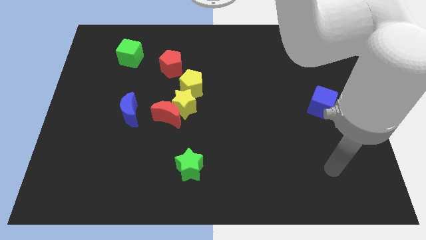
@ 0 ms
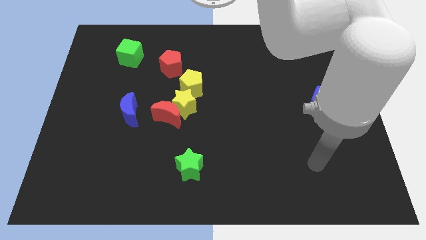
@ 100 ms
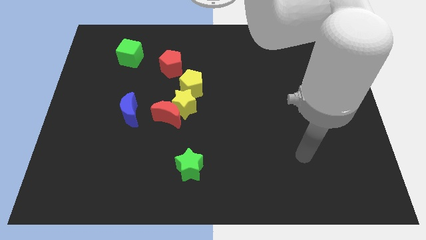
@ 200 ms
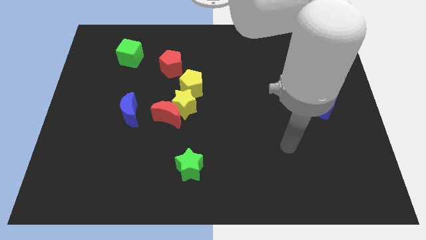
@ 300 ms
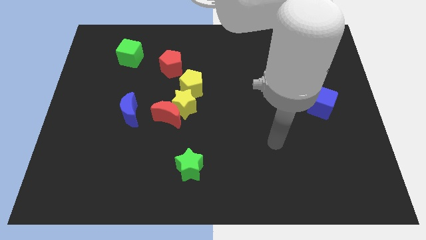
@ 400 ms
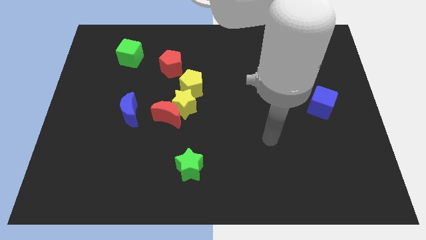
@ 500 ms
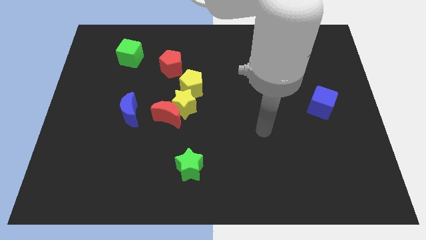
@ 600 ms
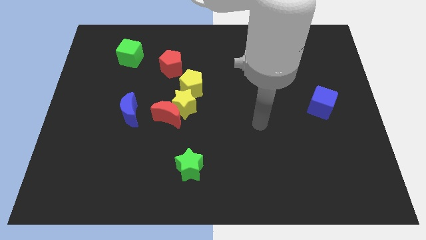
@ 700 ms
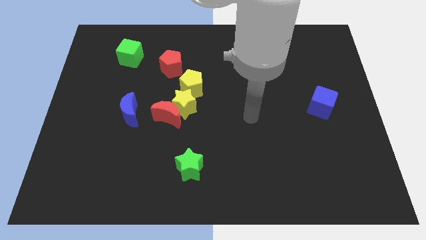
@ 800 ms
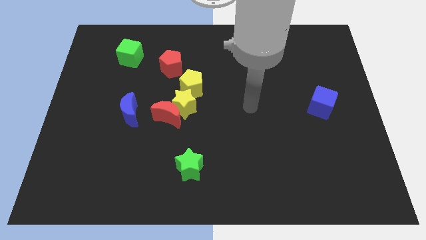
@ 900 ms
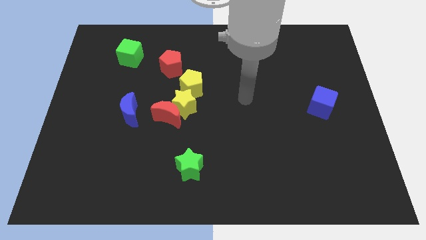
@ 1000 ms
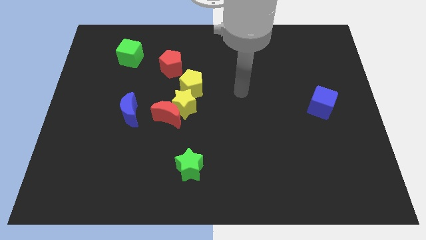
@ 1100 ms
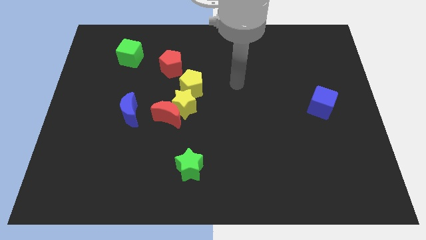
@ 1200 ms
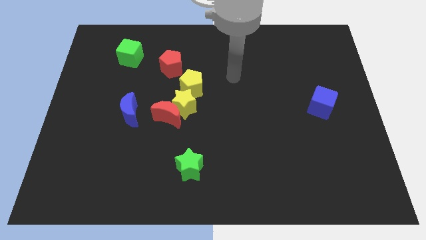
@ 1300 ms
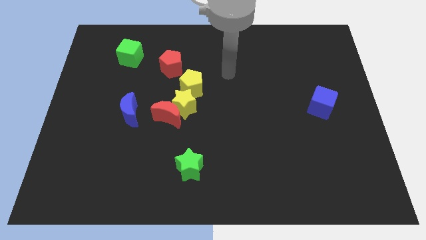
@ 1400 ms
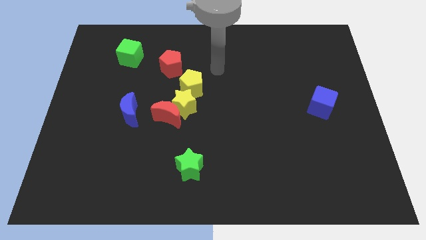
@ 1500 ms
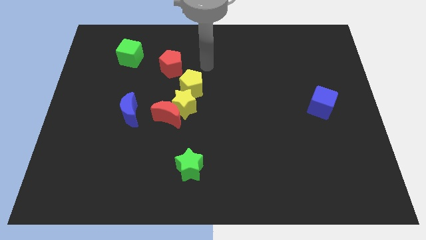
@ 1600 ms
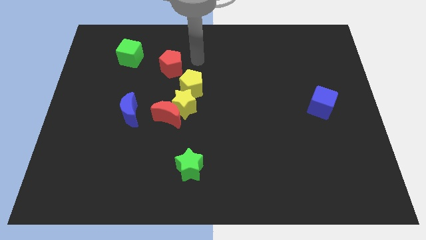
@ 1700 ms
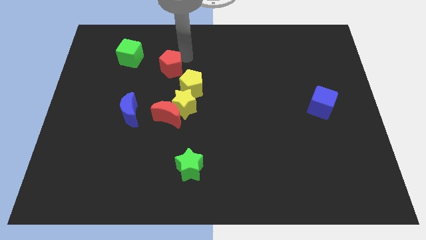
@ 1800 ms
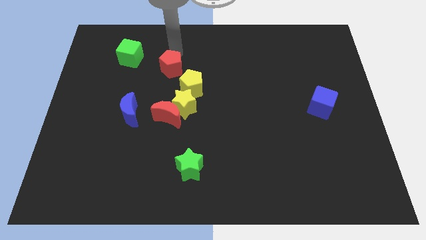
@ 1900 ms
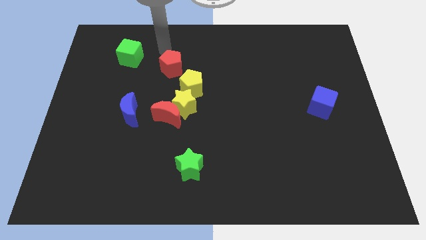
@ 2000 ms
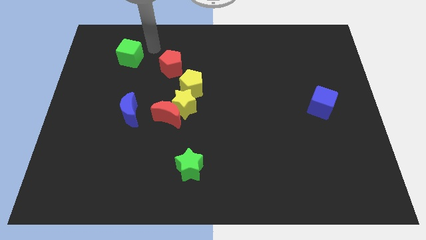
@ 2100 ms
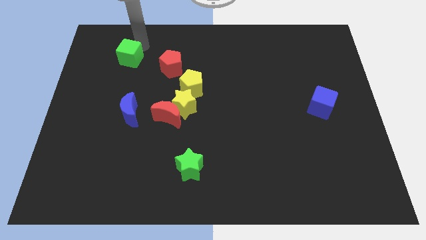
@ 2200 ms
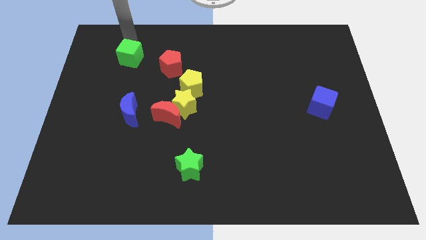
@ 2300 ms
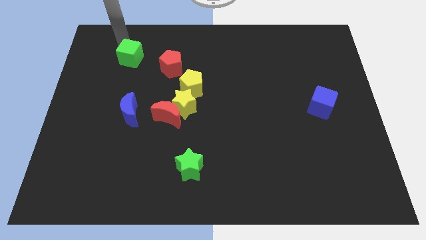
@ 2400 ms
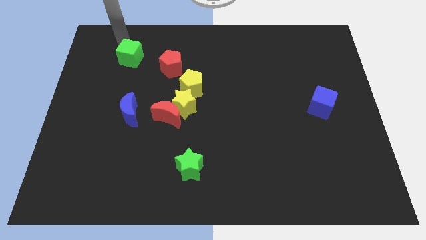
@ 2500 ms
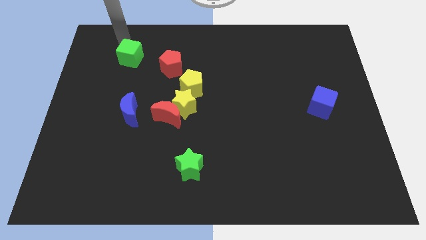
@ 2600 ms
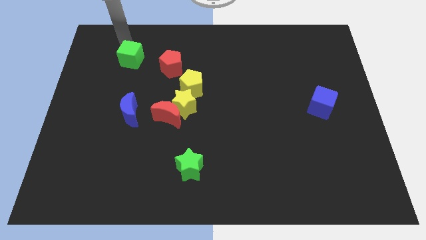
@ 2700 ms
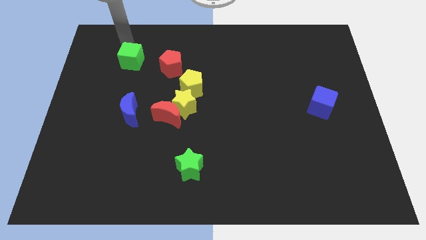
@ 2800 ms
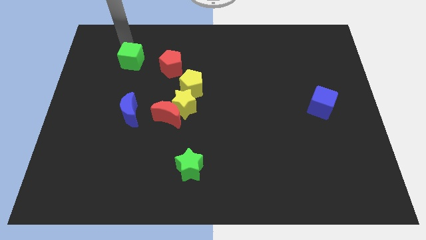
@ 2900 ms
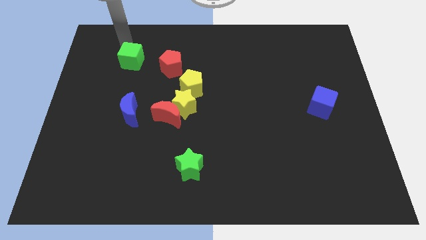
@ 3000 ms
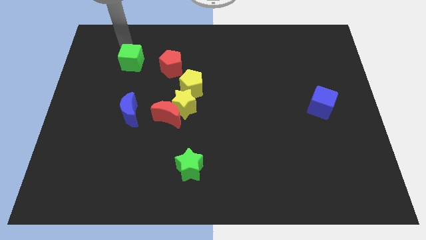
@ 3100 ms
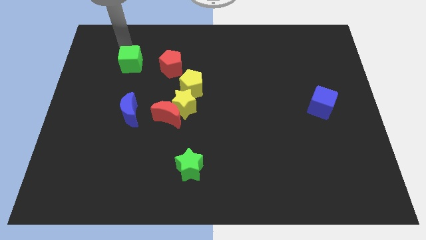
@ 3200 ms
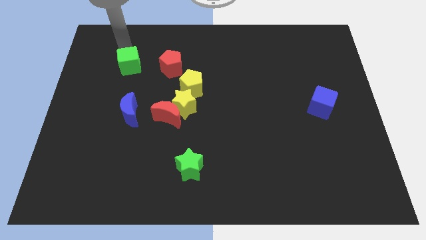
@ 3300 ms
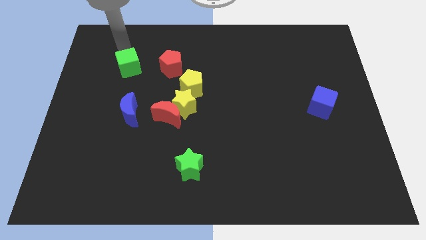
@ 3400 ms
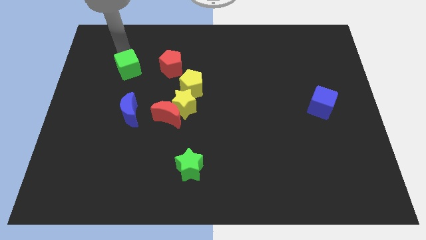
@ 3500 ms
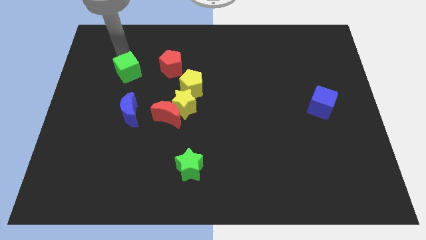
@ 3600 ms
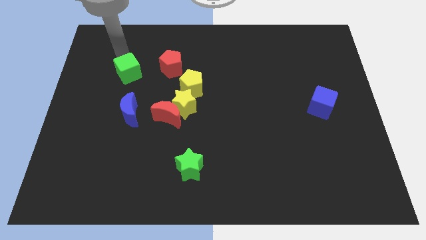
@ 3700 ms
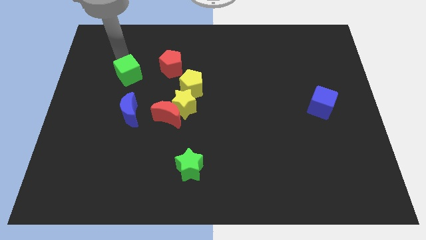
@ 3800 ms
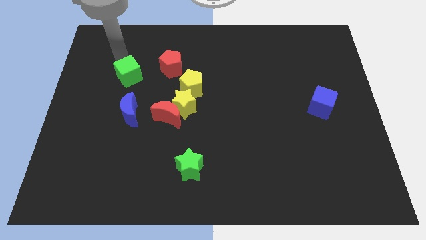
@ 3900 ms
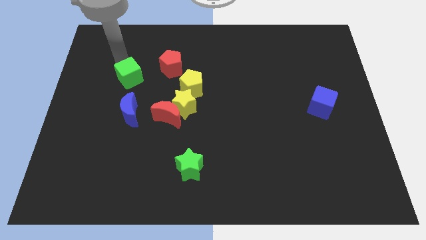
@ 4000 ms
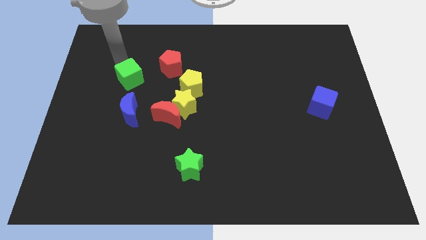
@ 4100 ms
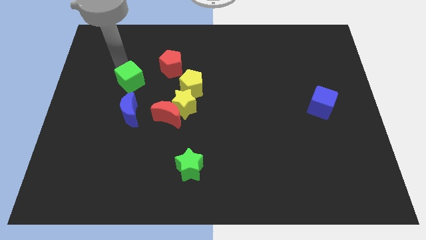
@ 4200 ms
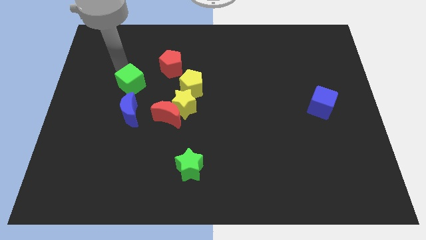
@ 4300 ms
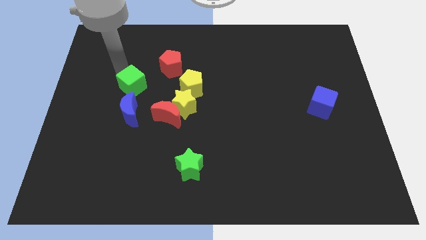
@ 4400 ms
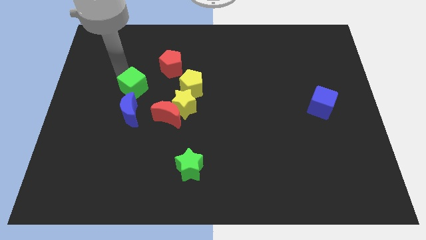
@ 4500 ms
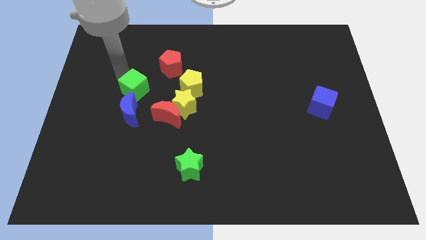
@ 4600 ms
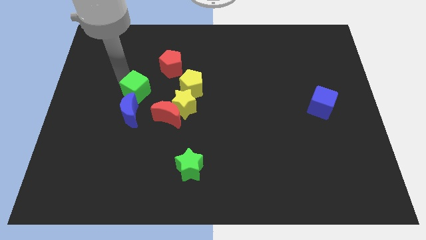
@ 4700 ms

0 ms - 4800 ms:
put the green cube to the top right of the blue moon

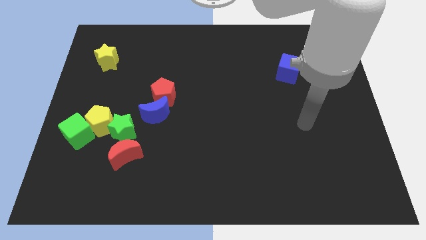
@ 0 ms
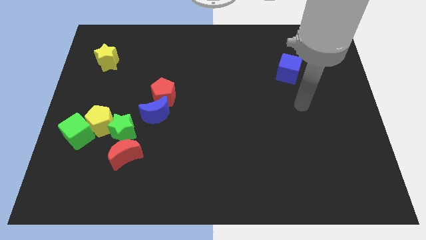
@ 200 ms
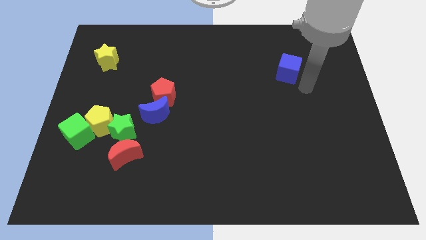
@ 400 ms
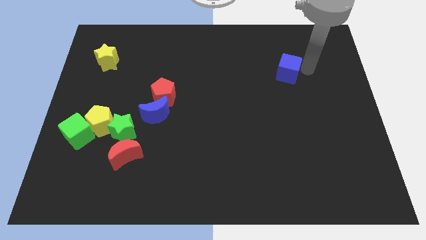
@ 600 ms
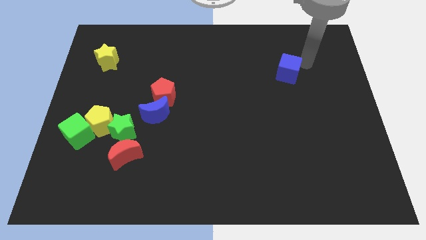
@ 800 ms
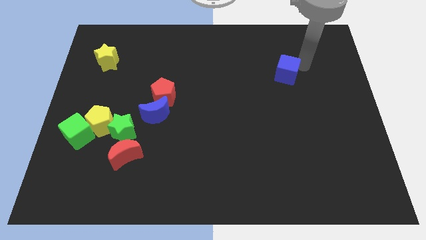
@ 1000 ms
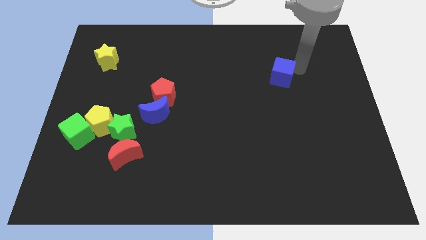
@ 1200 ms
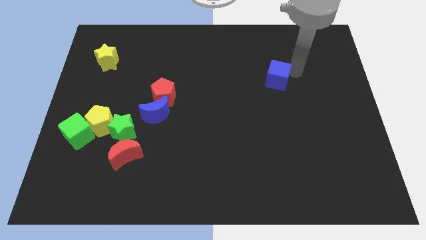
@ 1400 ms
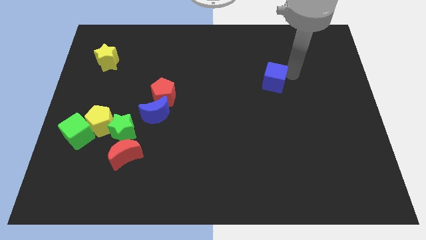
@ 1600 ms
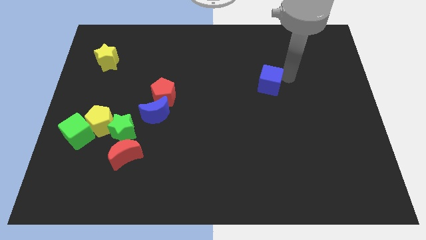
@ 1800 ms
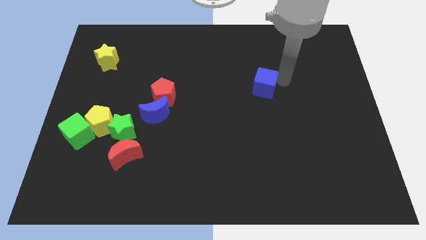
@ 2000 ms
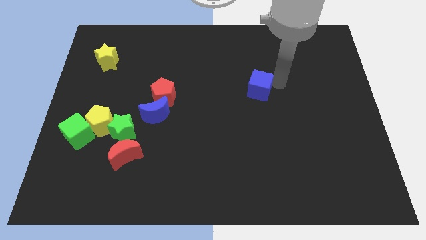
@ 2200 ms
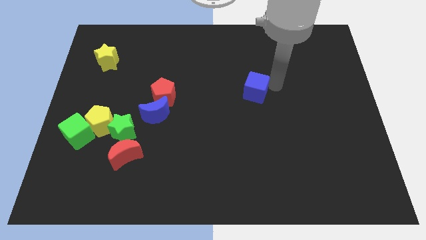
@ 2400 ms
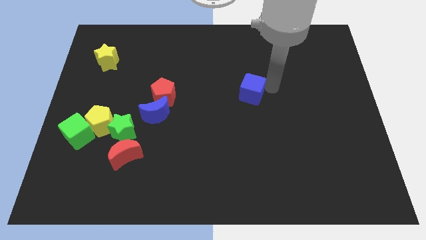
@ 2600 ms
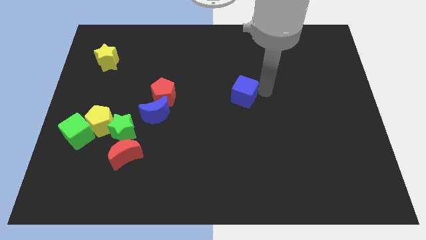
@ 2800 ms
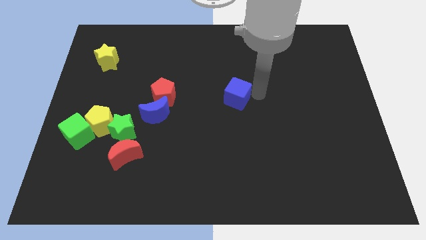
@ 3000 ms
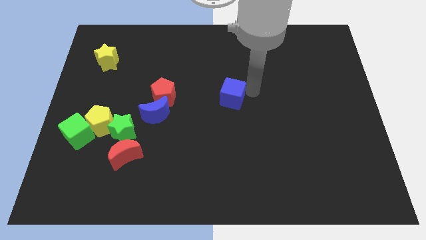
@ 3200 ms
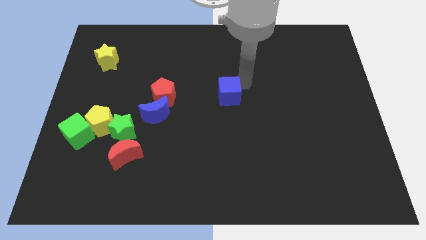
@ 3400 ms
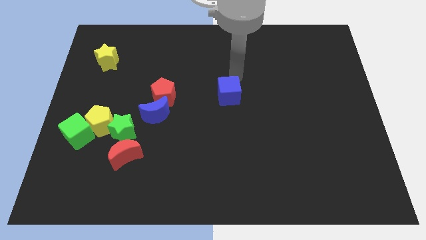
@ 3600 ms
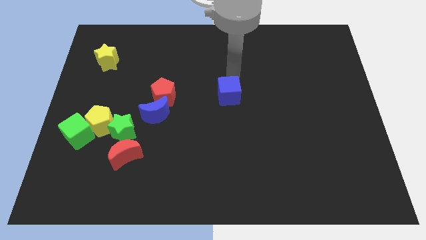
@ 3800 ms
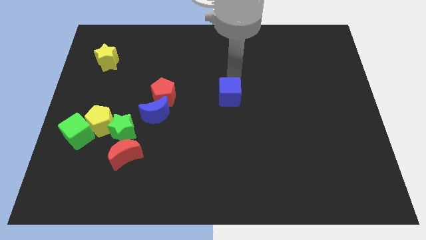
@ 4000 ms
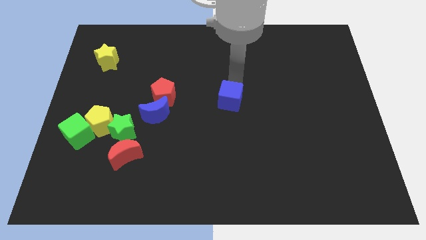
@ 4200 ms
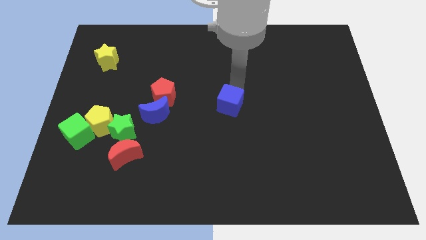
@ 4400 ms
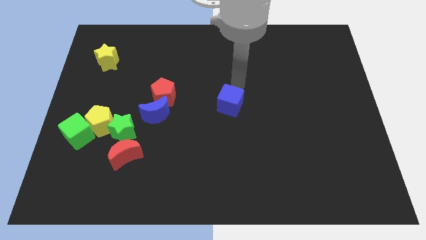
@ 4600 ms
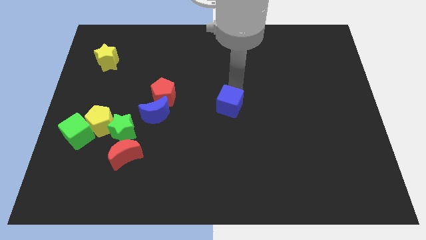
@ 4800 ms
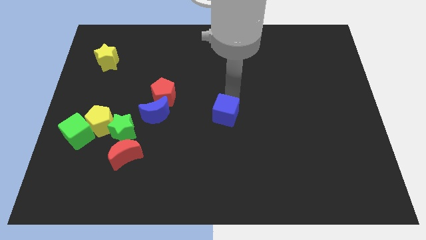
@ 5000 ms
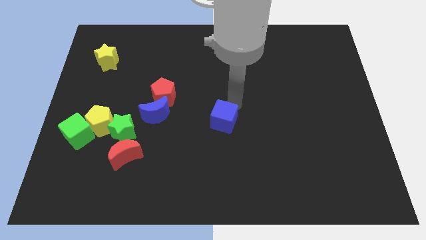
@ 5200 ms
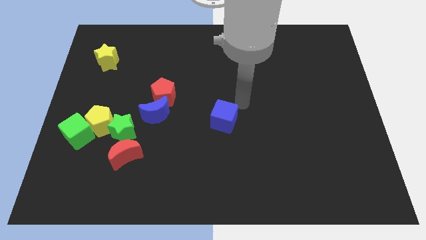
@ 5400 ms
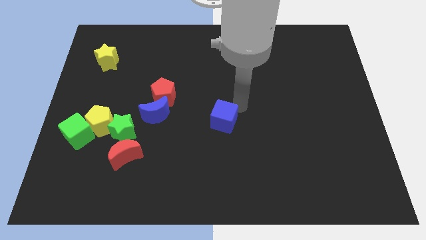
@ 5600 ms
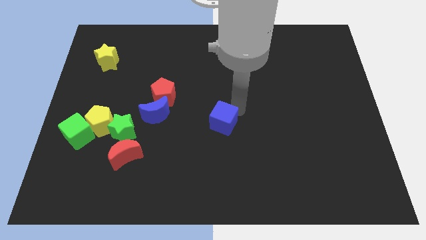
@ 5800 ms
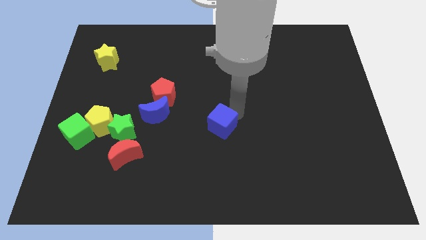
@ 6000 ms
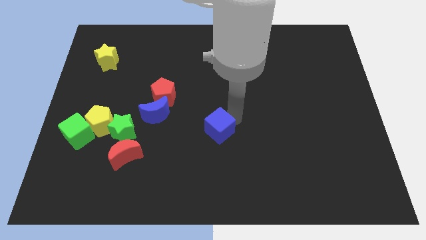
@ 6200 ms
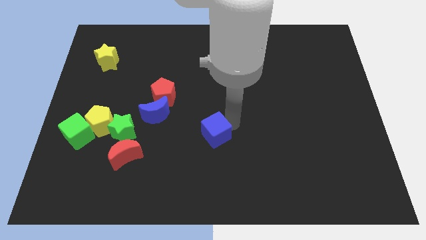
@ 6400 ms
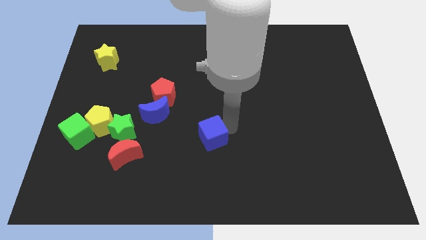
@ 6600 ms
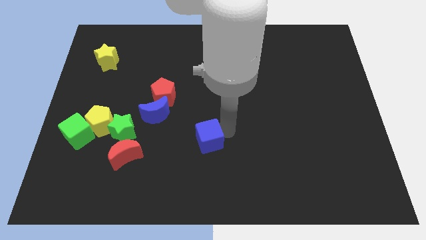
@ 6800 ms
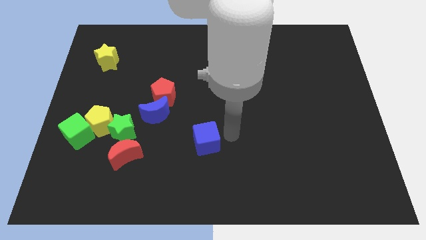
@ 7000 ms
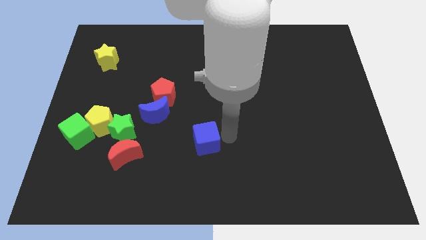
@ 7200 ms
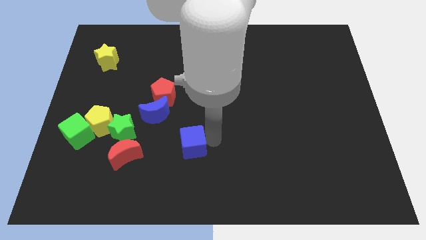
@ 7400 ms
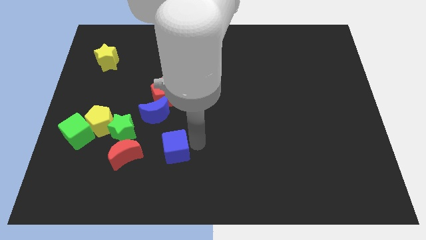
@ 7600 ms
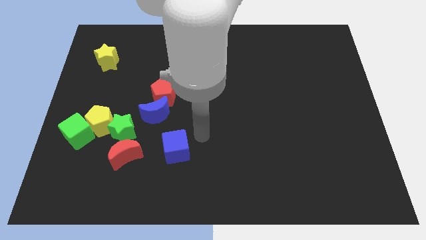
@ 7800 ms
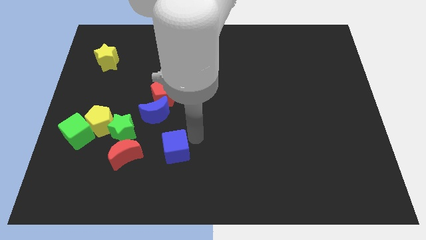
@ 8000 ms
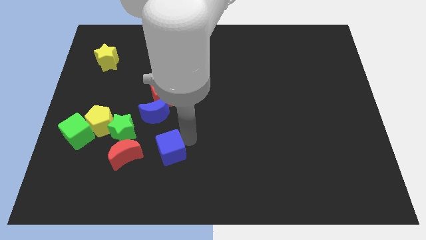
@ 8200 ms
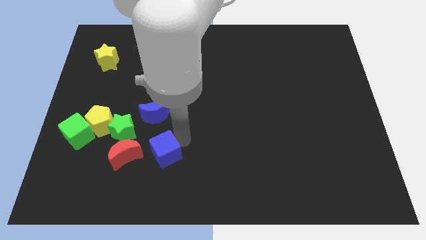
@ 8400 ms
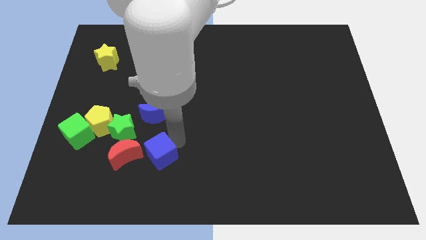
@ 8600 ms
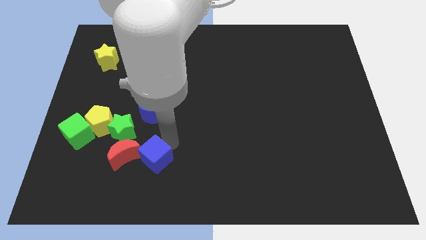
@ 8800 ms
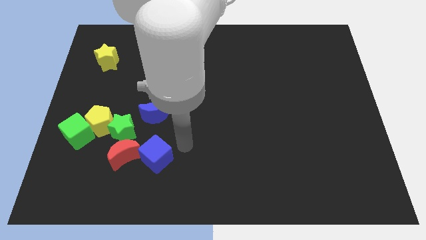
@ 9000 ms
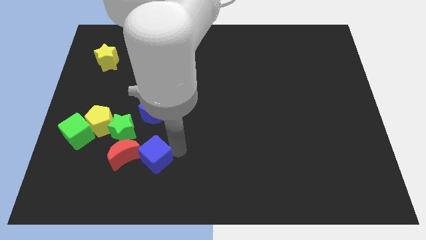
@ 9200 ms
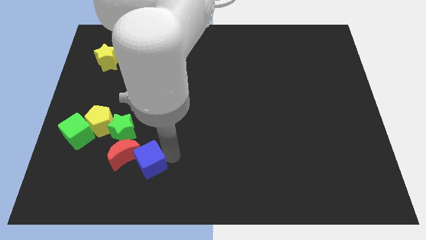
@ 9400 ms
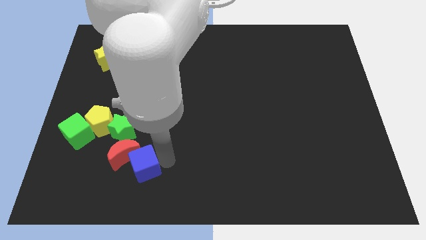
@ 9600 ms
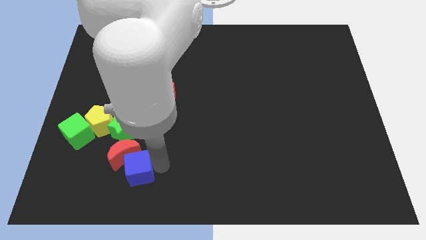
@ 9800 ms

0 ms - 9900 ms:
put the blue cube to the bottom side of the green star
